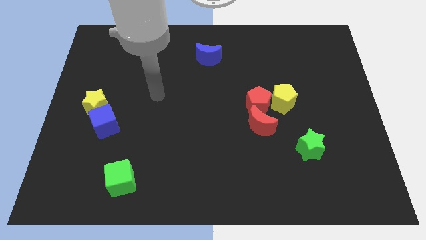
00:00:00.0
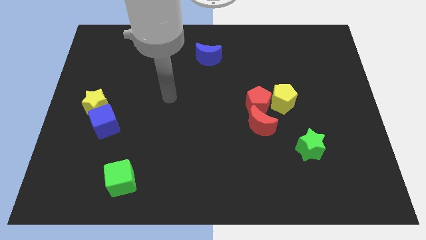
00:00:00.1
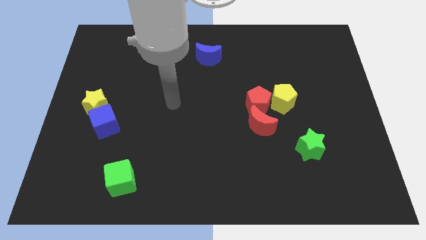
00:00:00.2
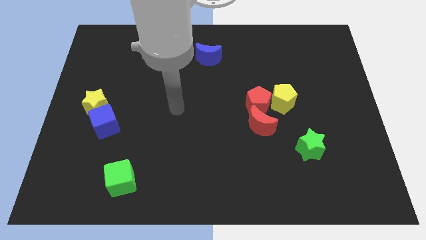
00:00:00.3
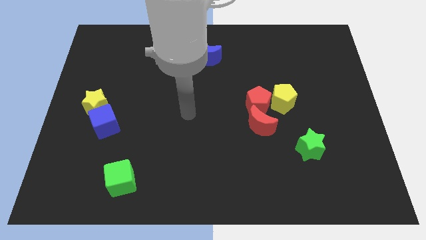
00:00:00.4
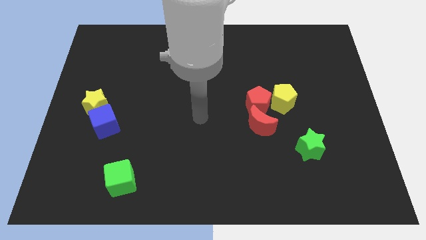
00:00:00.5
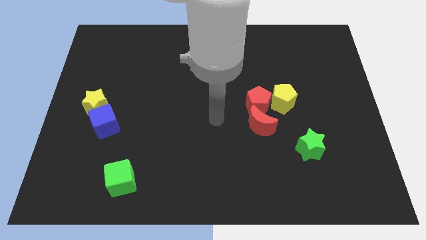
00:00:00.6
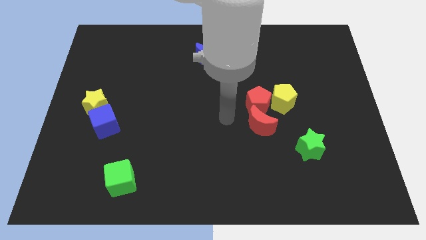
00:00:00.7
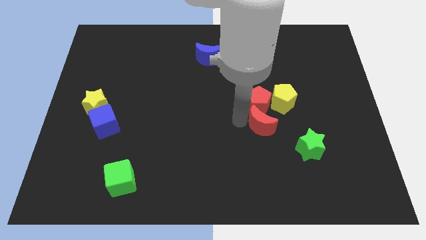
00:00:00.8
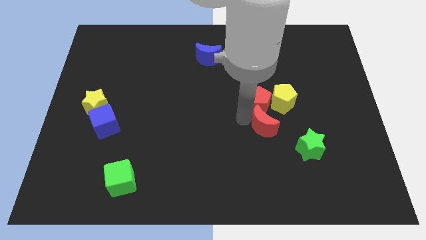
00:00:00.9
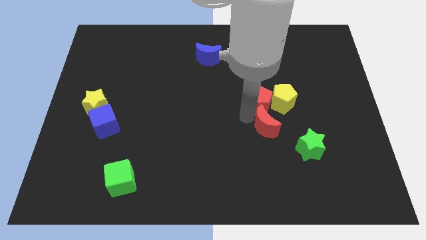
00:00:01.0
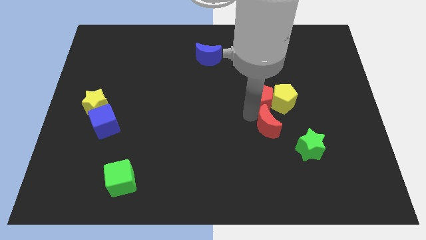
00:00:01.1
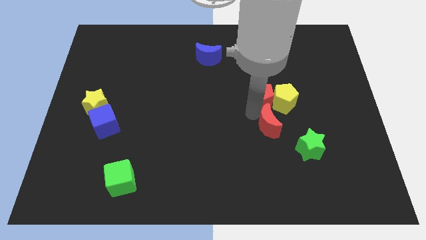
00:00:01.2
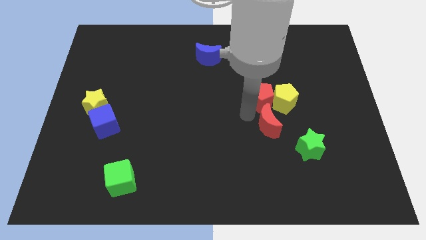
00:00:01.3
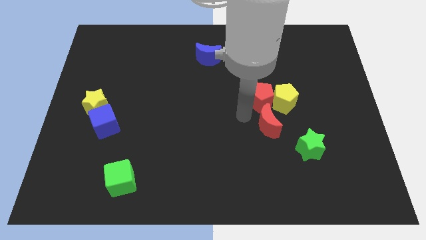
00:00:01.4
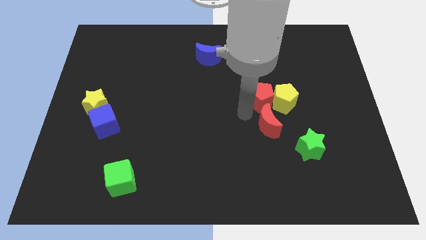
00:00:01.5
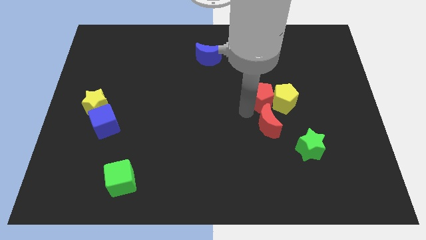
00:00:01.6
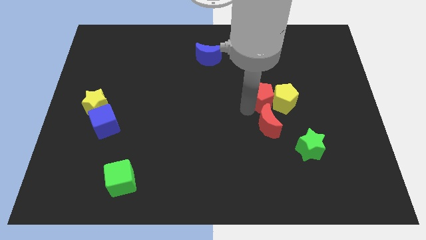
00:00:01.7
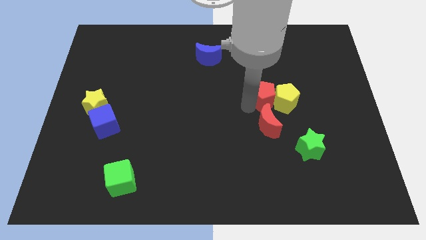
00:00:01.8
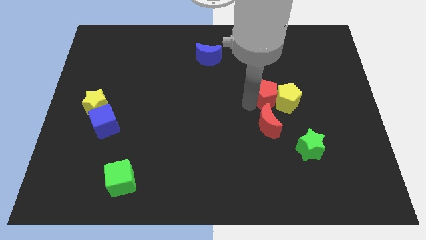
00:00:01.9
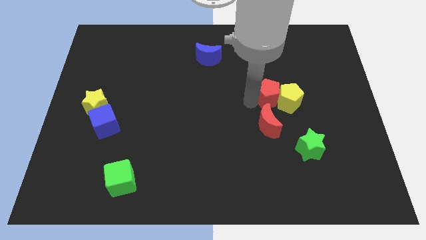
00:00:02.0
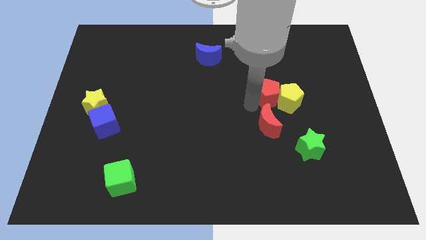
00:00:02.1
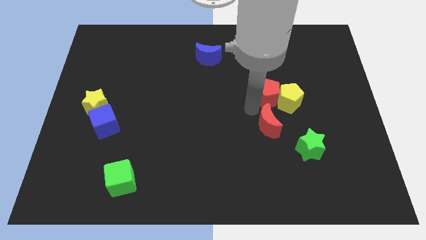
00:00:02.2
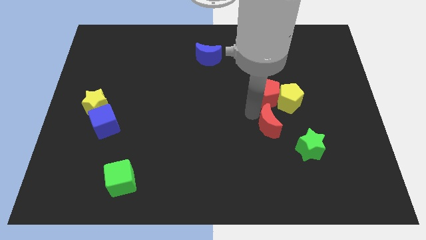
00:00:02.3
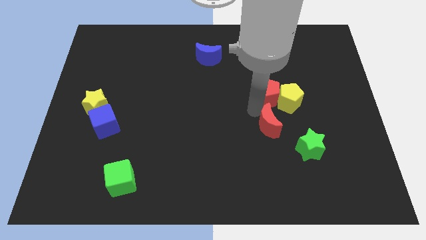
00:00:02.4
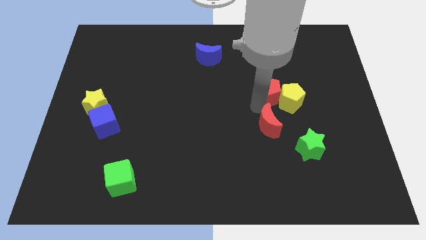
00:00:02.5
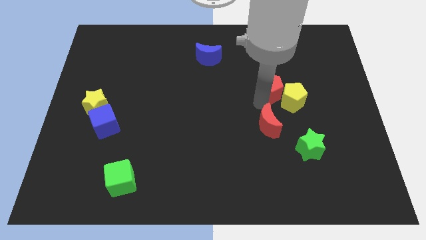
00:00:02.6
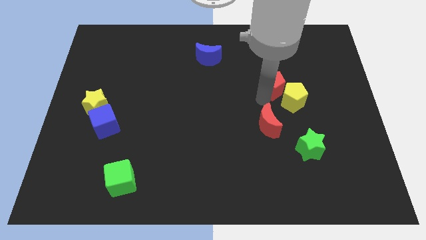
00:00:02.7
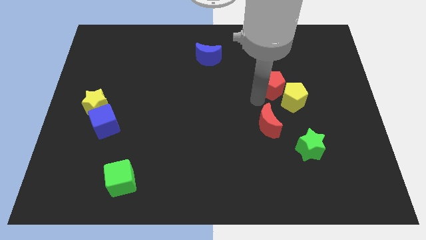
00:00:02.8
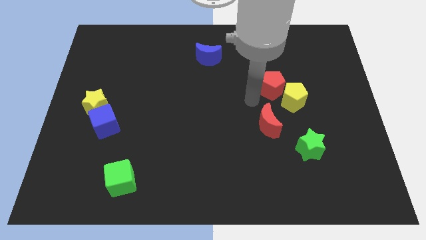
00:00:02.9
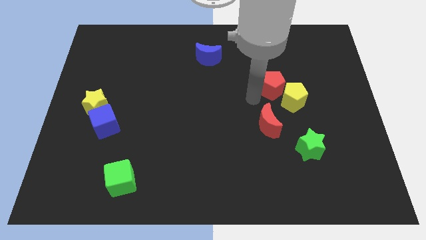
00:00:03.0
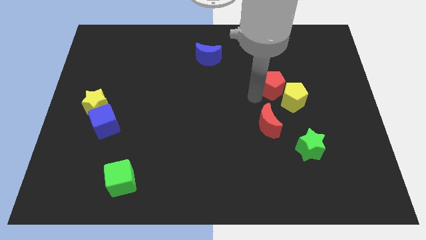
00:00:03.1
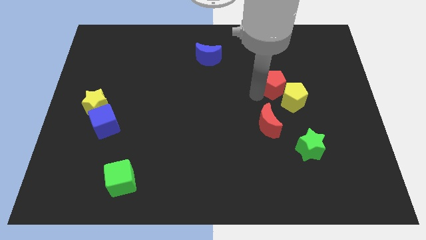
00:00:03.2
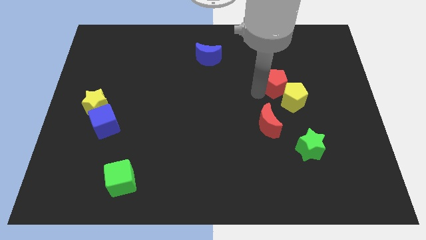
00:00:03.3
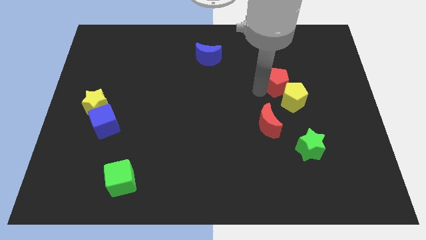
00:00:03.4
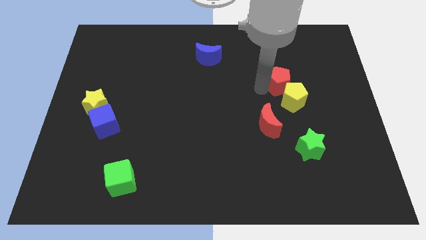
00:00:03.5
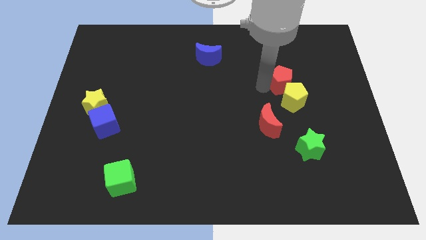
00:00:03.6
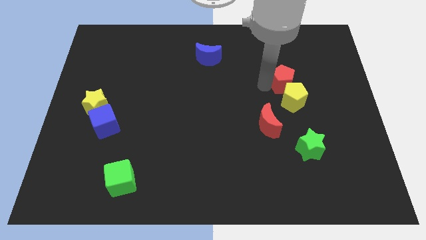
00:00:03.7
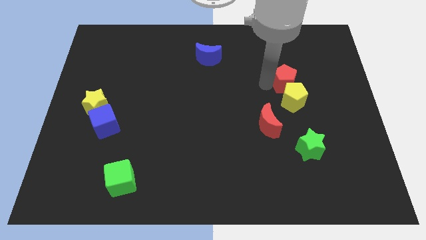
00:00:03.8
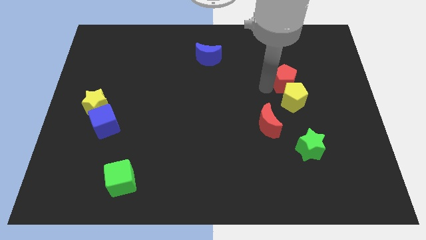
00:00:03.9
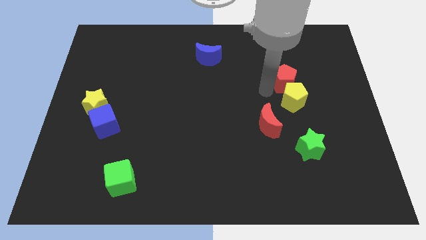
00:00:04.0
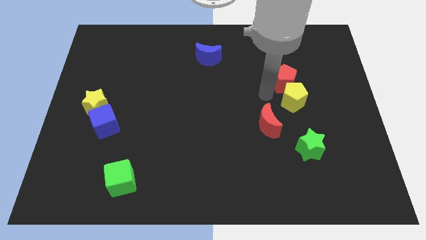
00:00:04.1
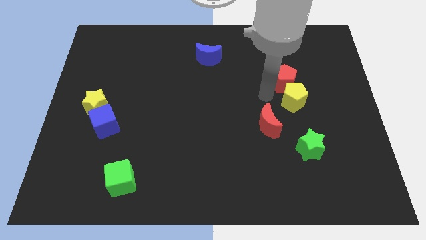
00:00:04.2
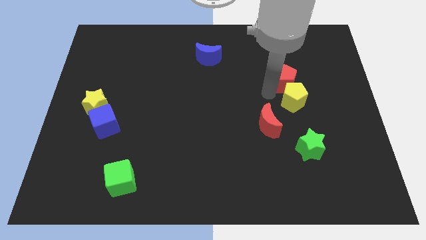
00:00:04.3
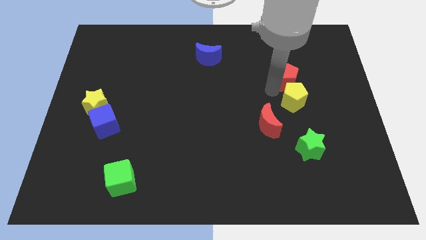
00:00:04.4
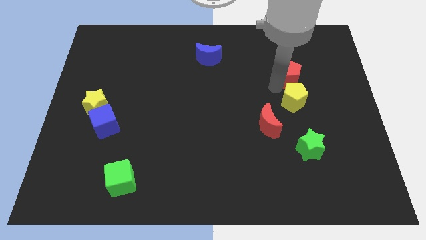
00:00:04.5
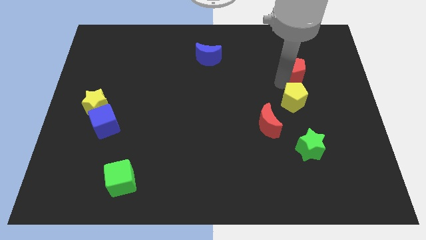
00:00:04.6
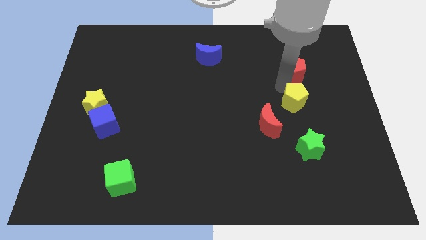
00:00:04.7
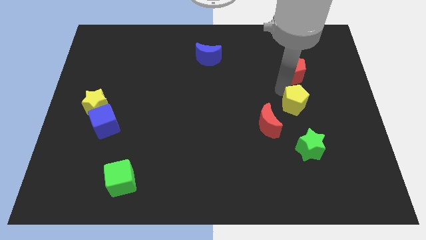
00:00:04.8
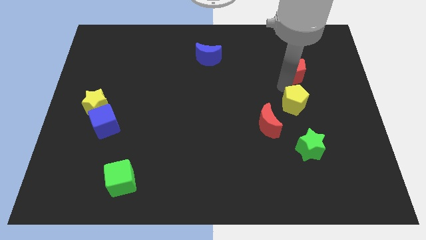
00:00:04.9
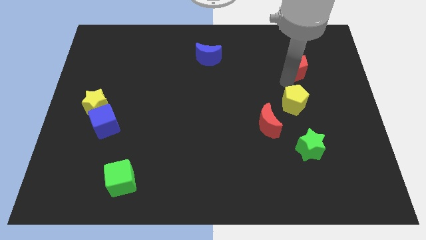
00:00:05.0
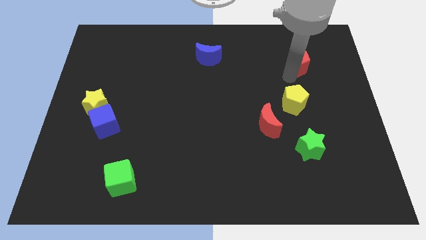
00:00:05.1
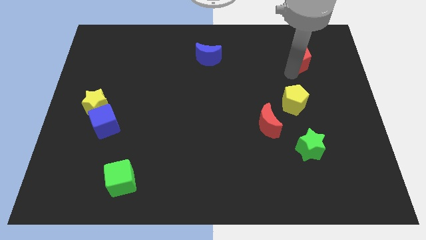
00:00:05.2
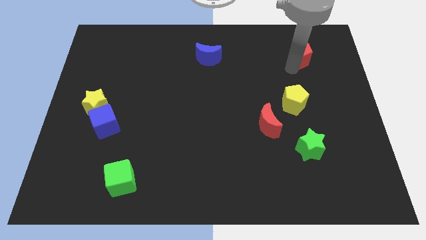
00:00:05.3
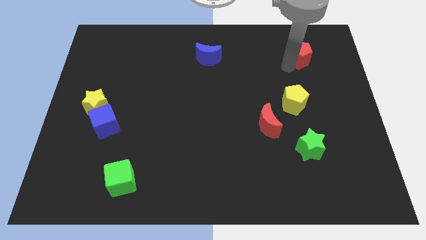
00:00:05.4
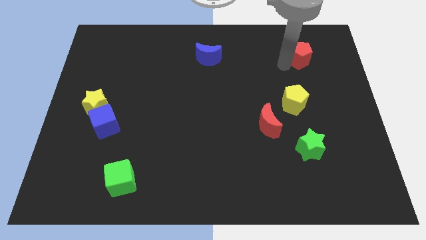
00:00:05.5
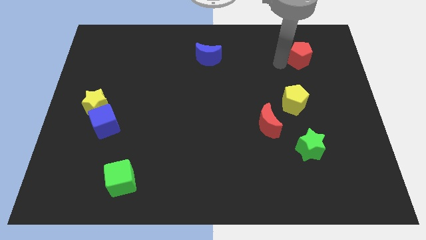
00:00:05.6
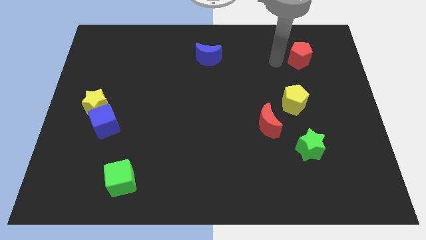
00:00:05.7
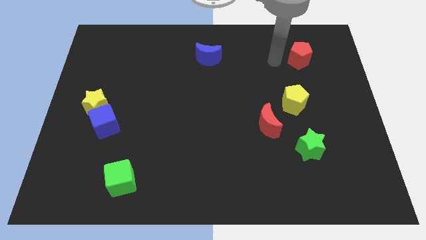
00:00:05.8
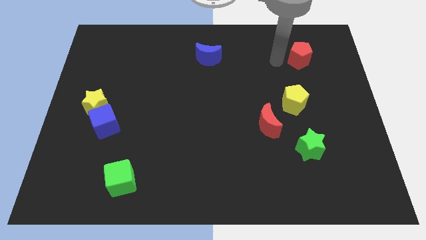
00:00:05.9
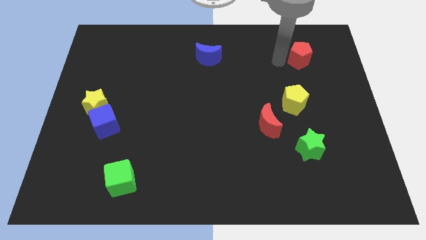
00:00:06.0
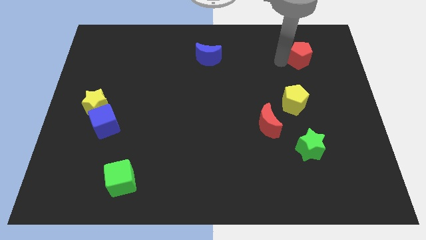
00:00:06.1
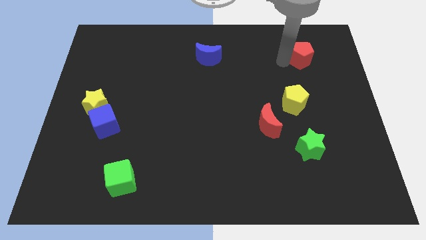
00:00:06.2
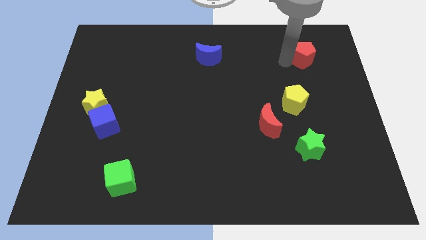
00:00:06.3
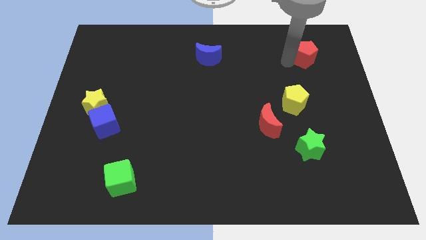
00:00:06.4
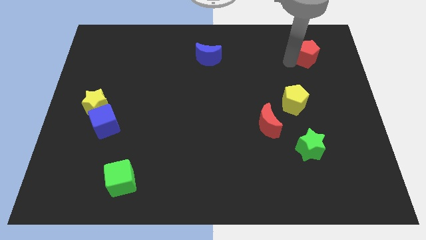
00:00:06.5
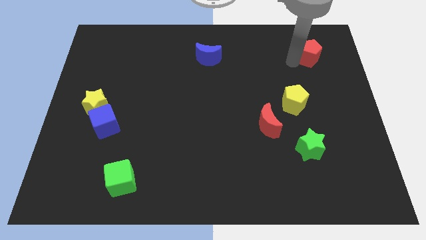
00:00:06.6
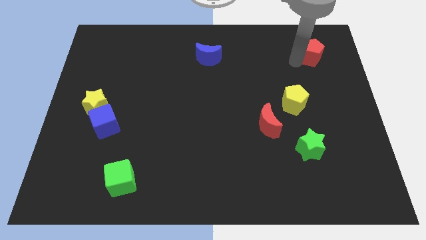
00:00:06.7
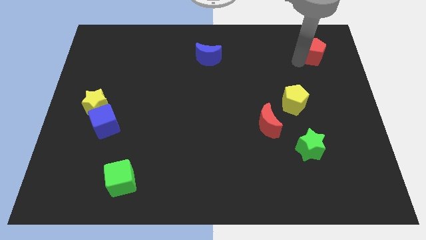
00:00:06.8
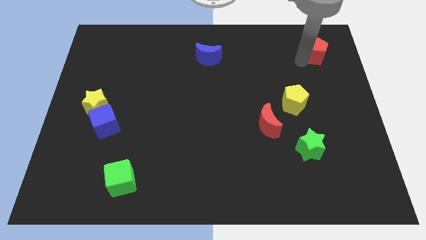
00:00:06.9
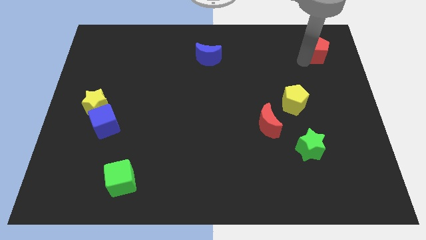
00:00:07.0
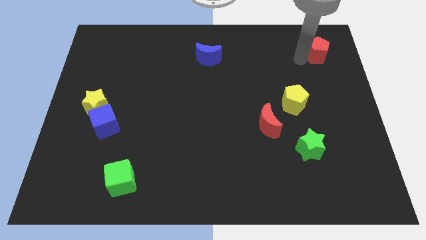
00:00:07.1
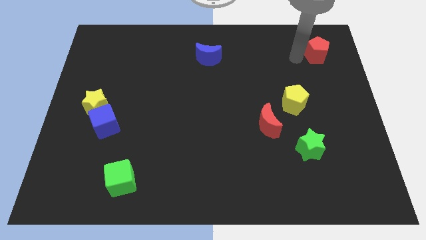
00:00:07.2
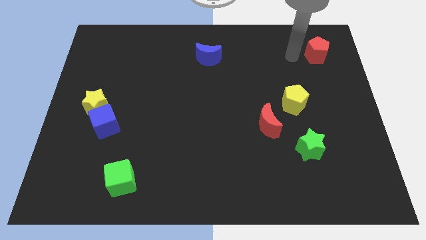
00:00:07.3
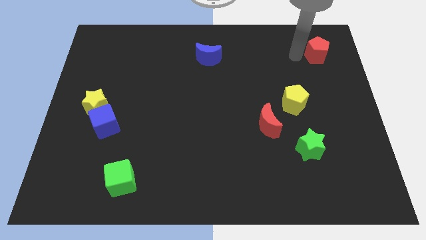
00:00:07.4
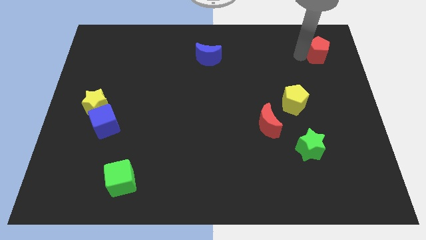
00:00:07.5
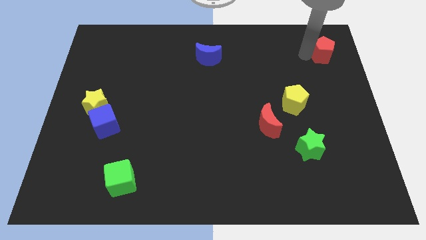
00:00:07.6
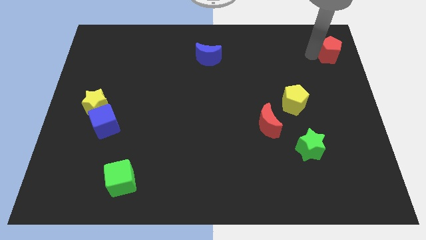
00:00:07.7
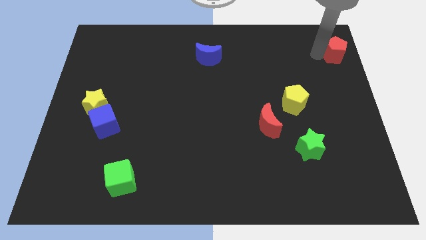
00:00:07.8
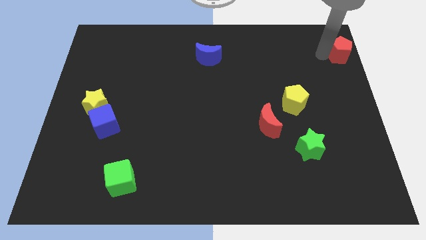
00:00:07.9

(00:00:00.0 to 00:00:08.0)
move the red pentagon to the top right of the board
